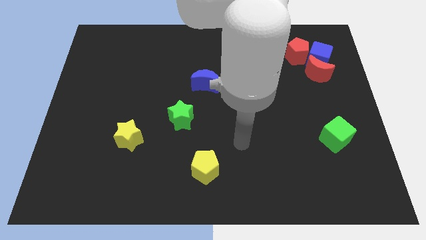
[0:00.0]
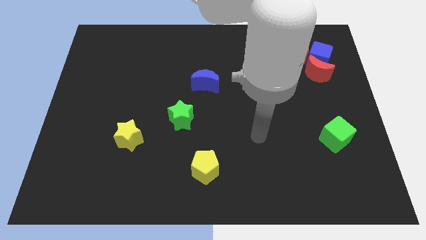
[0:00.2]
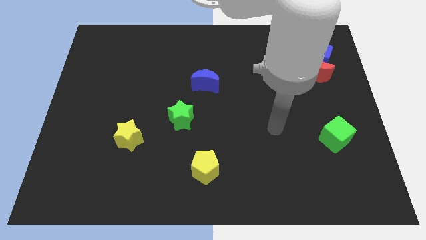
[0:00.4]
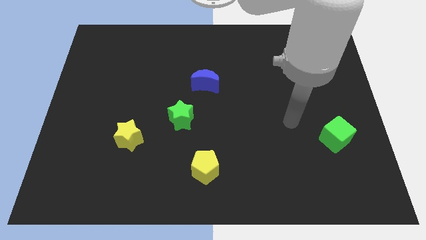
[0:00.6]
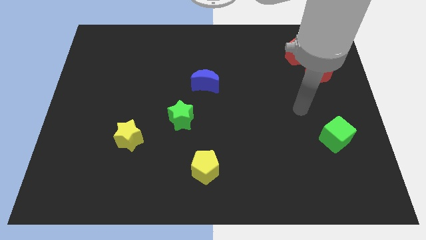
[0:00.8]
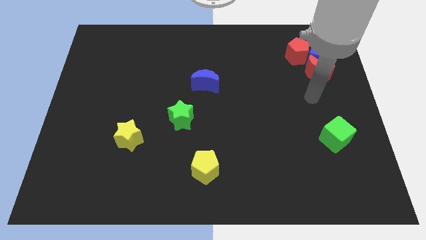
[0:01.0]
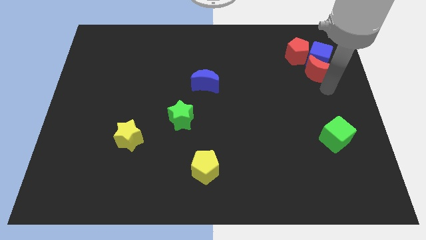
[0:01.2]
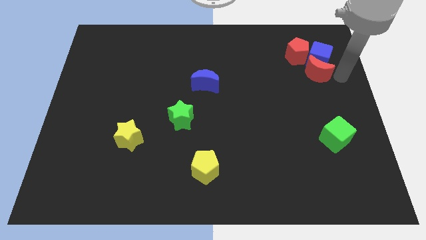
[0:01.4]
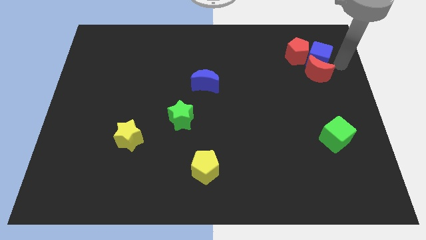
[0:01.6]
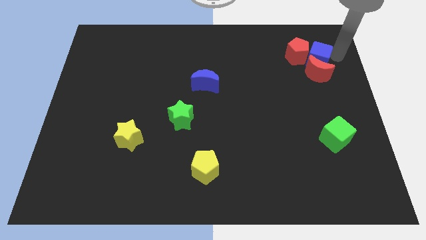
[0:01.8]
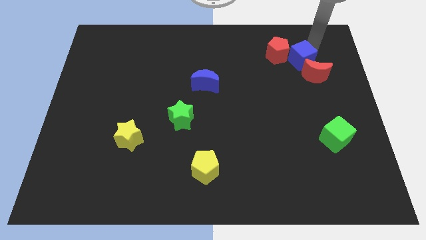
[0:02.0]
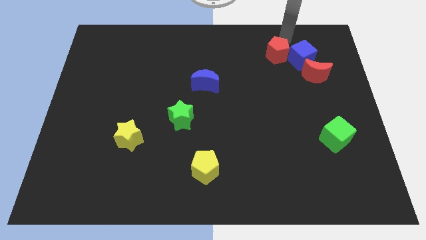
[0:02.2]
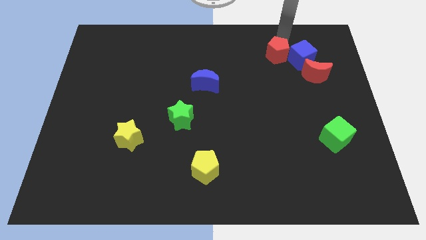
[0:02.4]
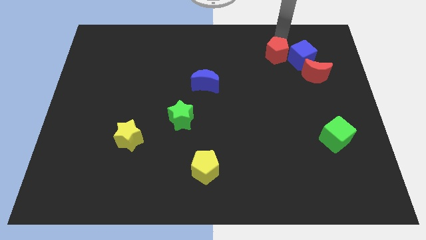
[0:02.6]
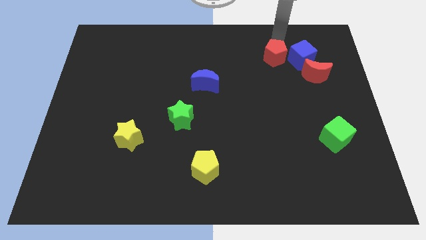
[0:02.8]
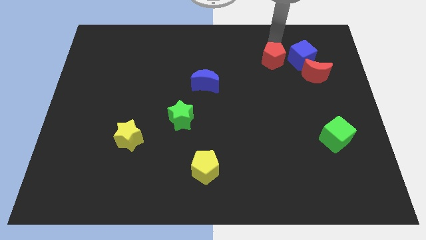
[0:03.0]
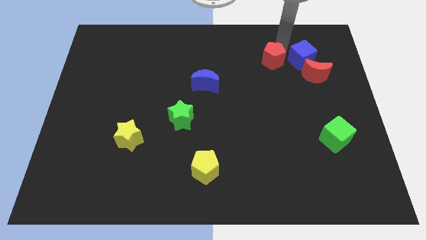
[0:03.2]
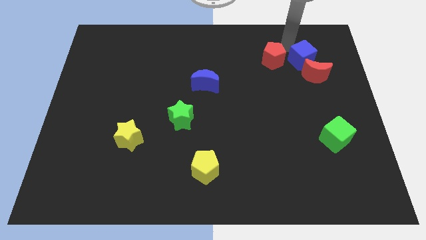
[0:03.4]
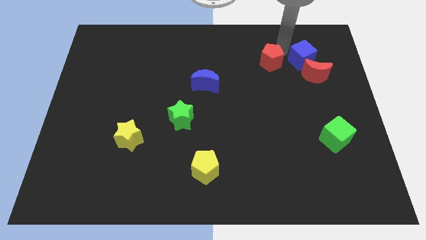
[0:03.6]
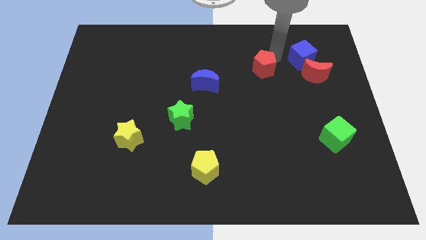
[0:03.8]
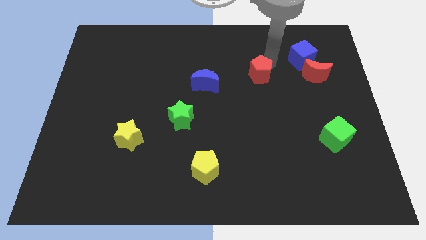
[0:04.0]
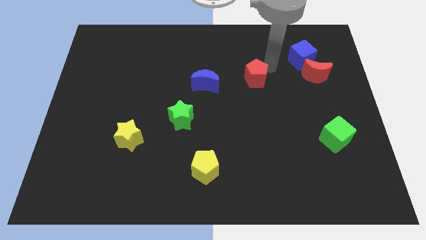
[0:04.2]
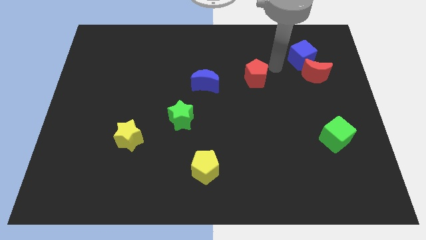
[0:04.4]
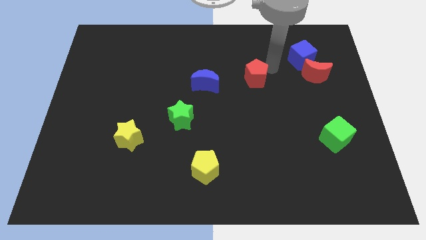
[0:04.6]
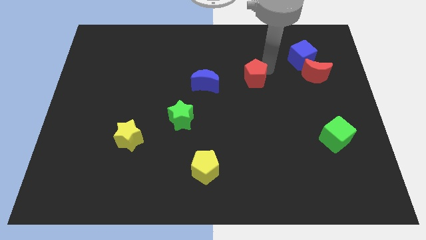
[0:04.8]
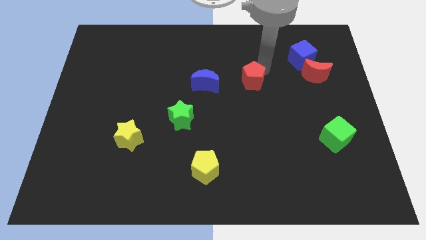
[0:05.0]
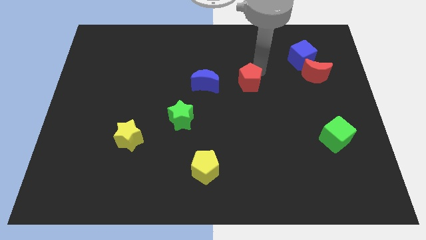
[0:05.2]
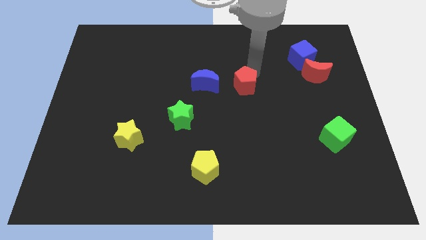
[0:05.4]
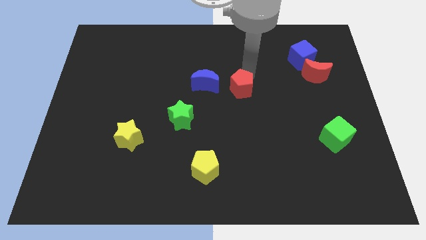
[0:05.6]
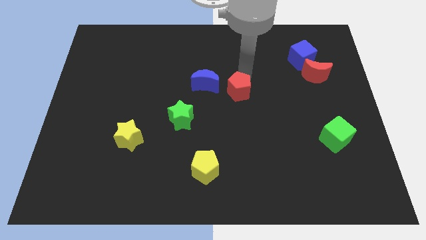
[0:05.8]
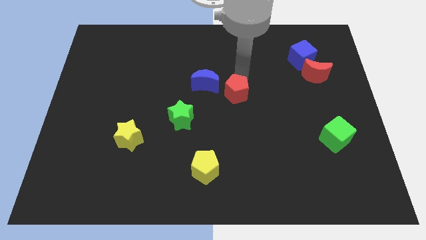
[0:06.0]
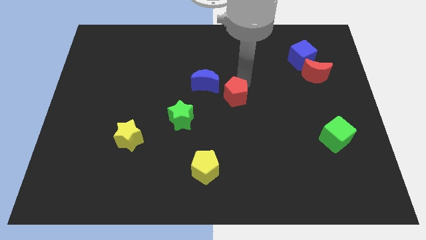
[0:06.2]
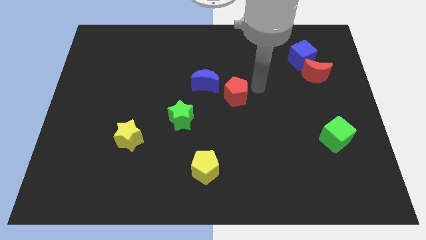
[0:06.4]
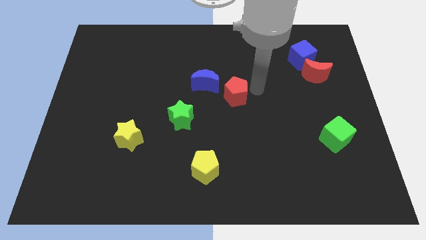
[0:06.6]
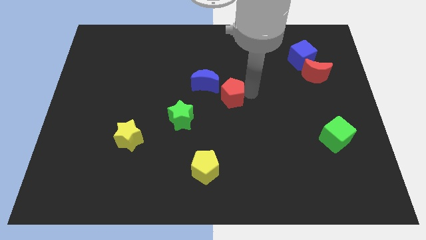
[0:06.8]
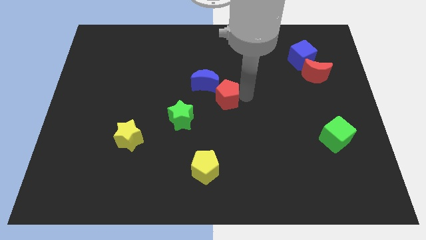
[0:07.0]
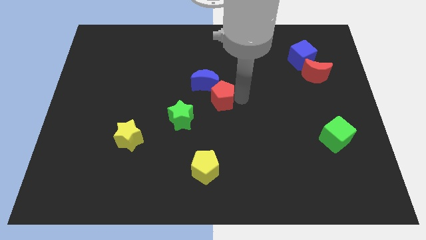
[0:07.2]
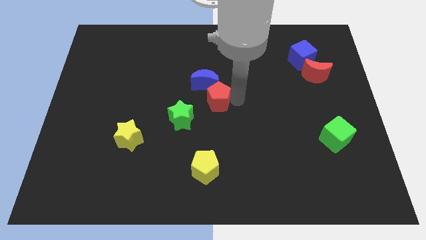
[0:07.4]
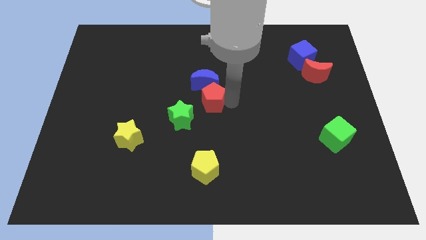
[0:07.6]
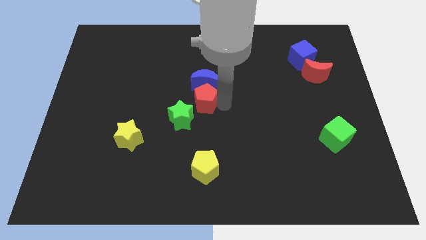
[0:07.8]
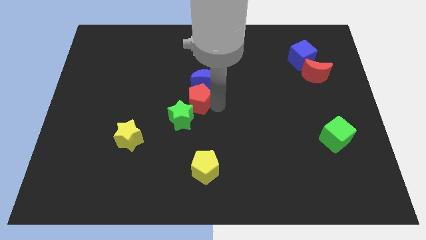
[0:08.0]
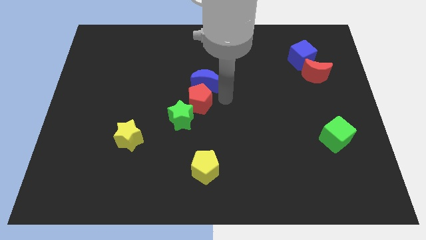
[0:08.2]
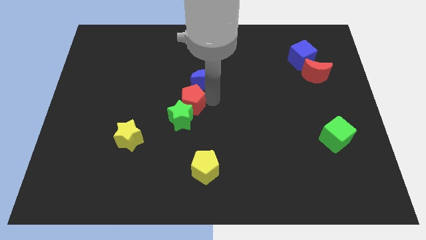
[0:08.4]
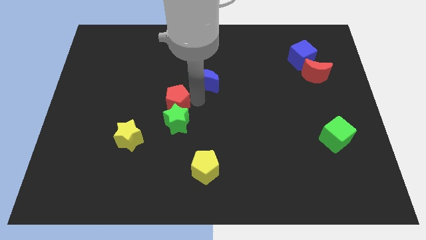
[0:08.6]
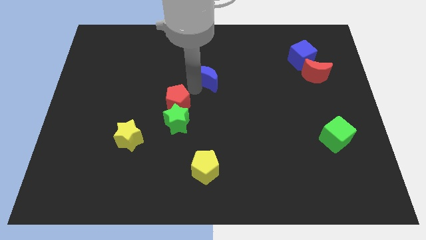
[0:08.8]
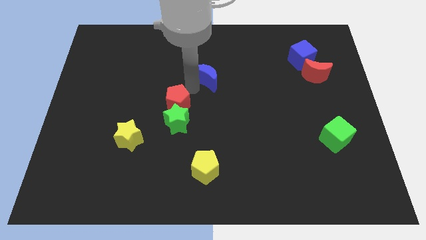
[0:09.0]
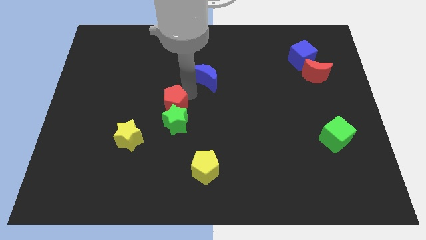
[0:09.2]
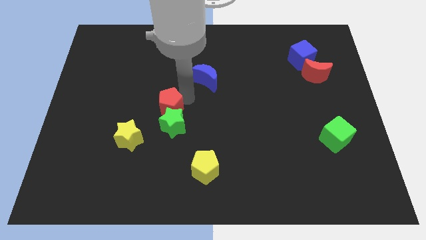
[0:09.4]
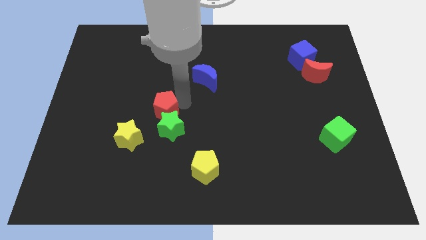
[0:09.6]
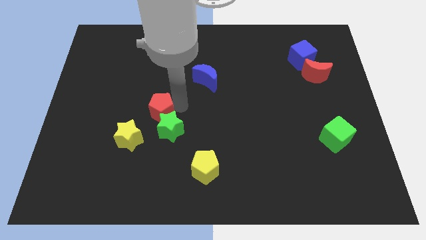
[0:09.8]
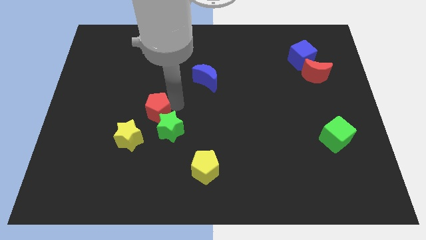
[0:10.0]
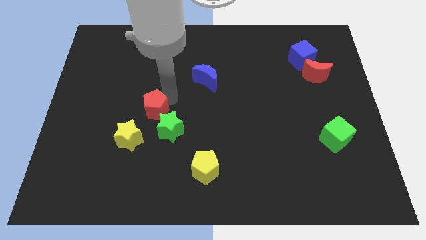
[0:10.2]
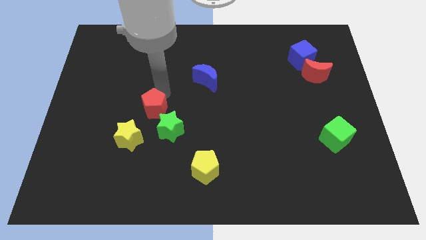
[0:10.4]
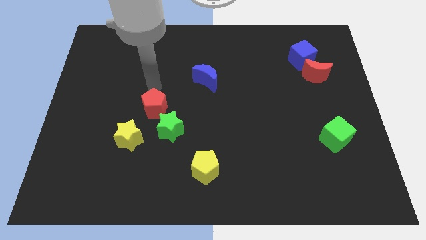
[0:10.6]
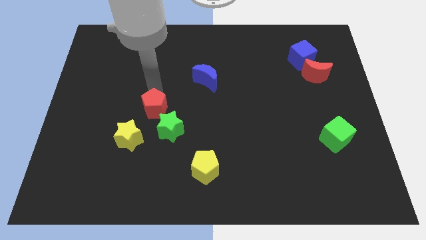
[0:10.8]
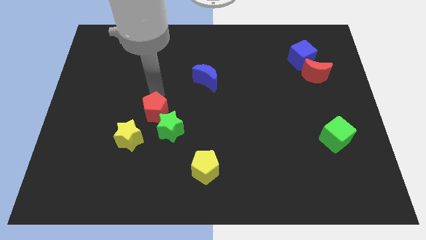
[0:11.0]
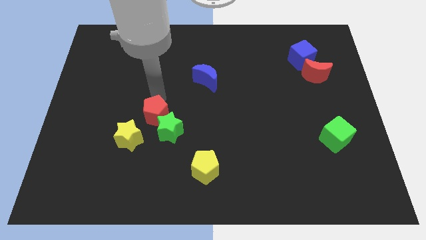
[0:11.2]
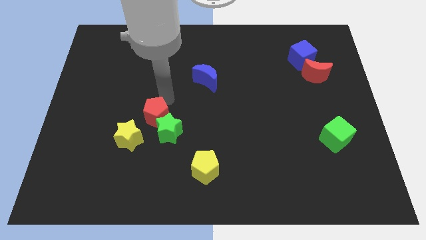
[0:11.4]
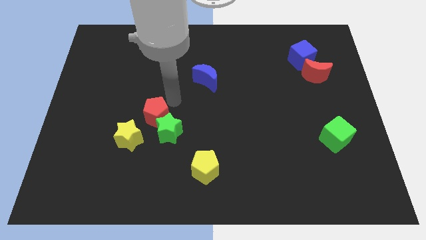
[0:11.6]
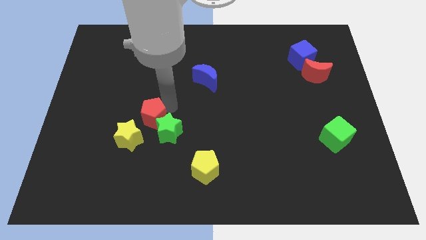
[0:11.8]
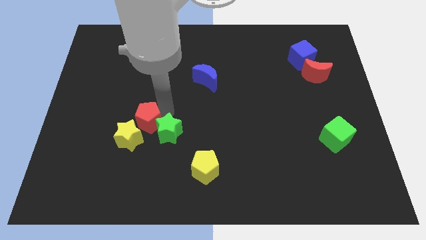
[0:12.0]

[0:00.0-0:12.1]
push the red pentagon close to the yellow star

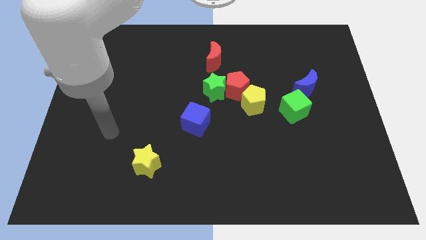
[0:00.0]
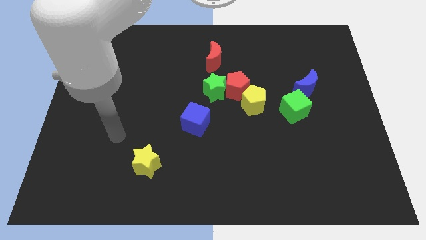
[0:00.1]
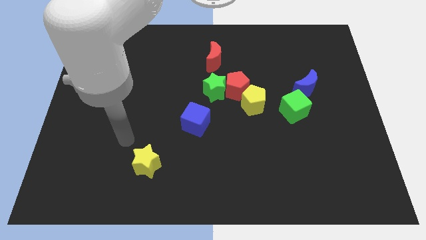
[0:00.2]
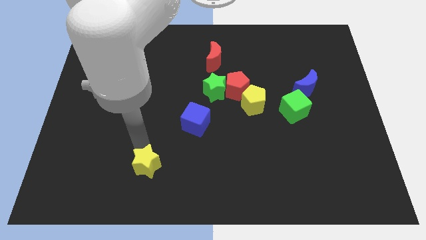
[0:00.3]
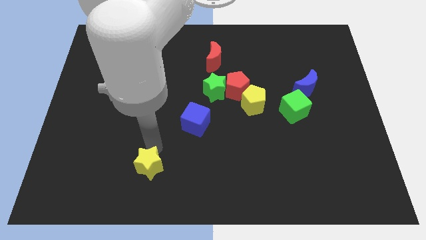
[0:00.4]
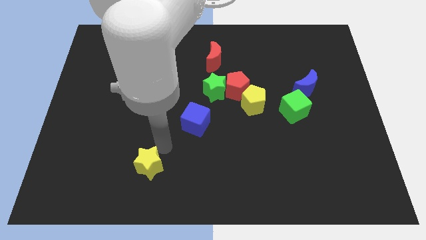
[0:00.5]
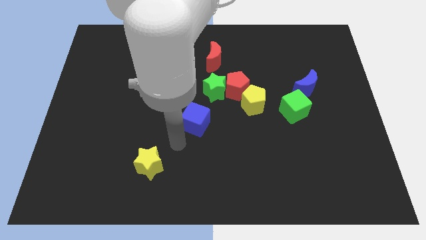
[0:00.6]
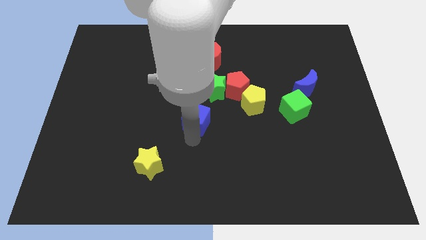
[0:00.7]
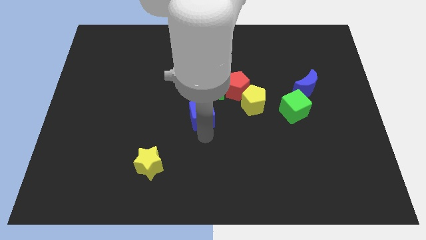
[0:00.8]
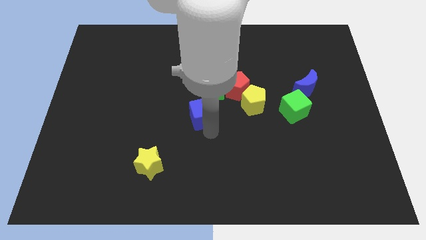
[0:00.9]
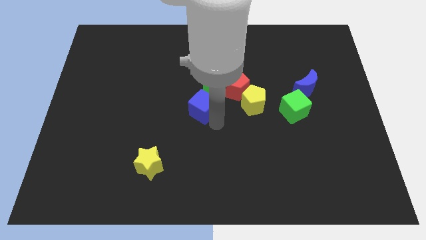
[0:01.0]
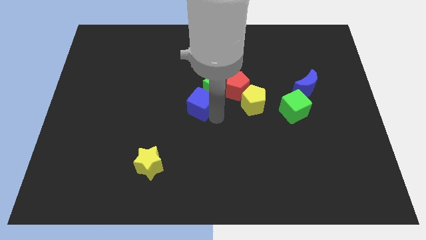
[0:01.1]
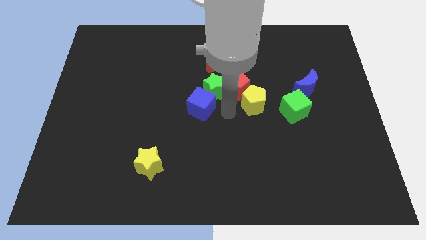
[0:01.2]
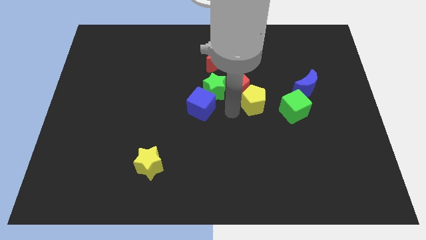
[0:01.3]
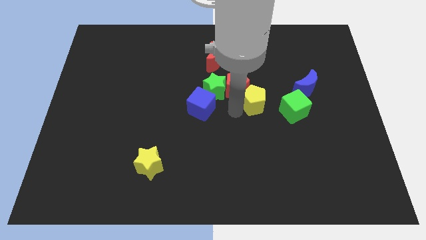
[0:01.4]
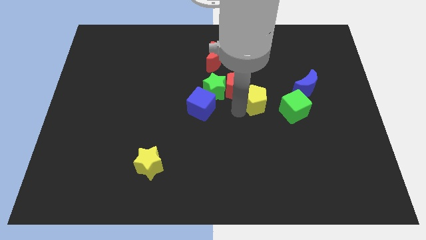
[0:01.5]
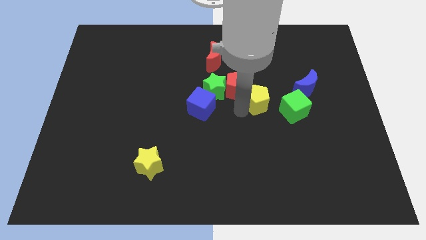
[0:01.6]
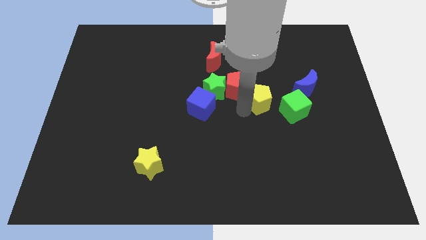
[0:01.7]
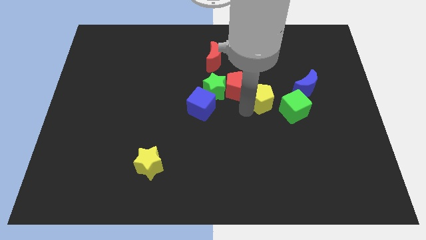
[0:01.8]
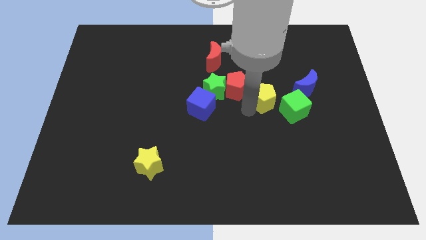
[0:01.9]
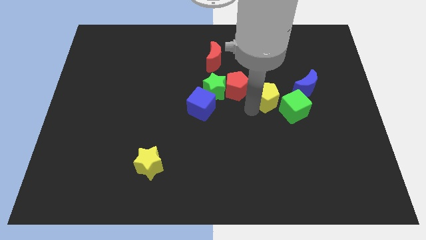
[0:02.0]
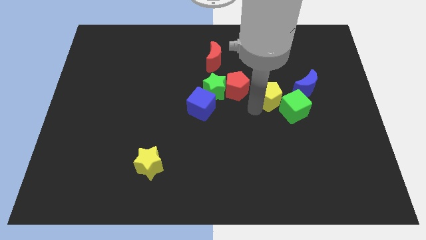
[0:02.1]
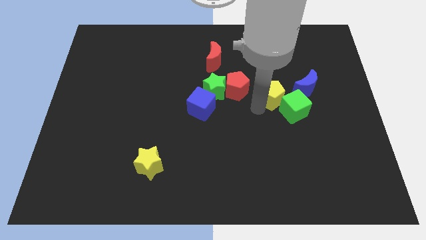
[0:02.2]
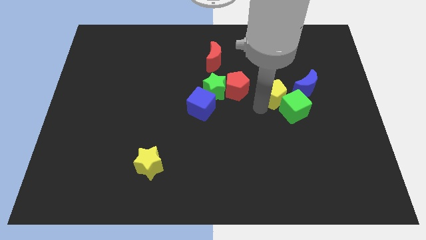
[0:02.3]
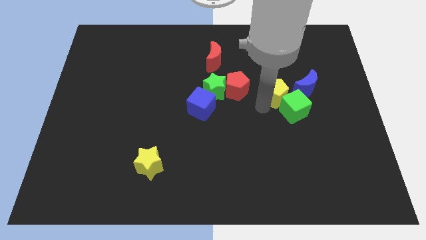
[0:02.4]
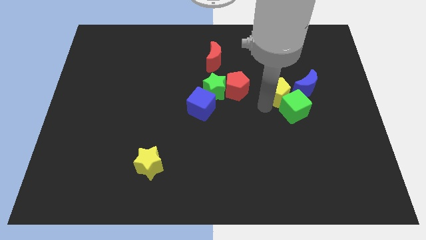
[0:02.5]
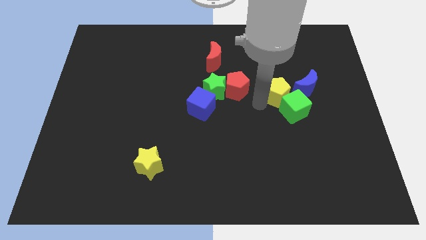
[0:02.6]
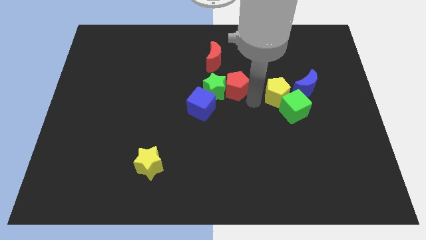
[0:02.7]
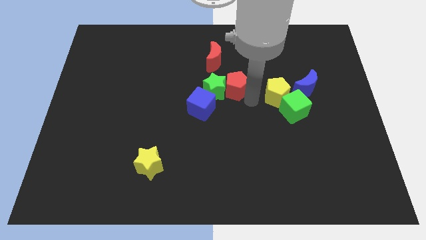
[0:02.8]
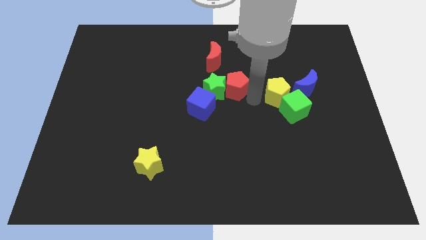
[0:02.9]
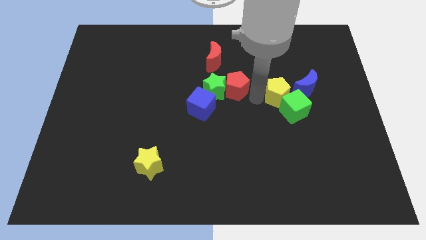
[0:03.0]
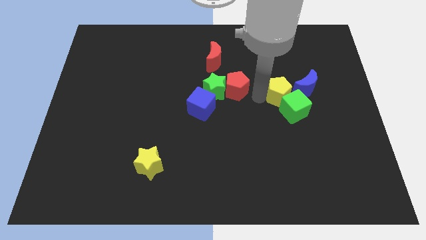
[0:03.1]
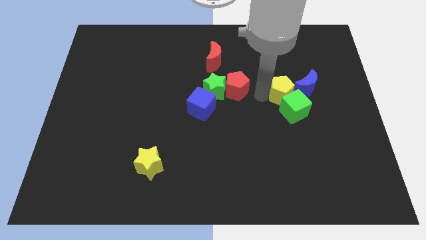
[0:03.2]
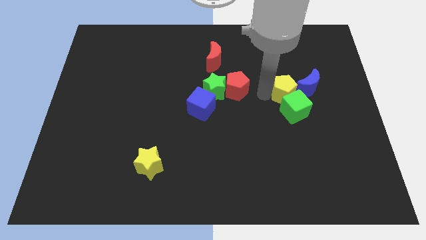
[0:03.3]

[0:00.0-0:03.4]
put the yellow pentagon towards the blue moon
